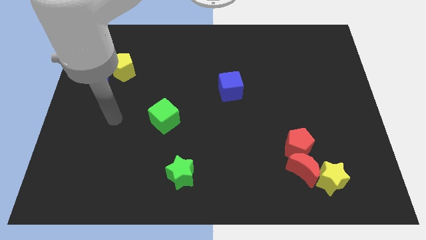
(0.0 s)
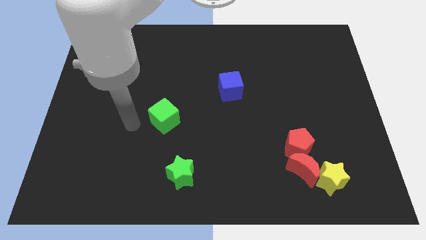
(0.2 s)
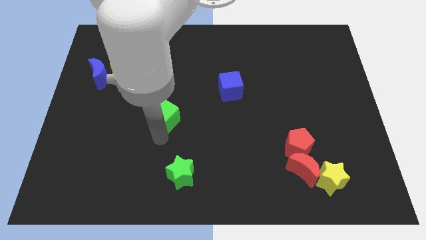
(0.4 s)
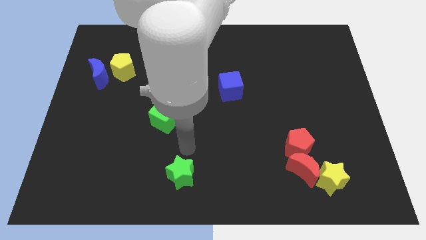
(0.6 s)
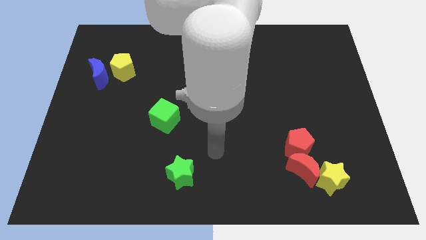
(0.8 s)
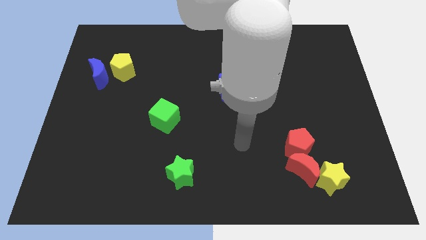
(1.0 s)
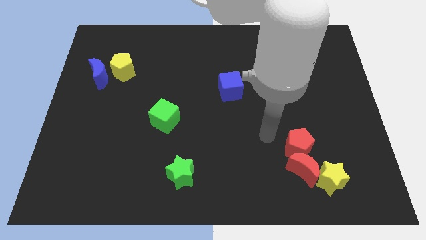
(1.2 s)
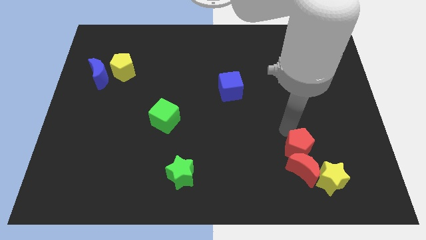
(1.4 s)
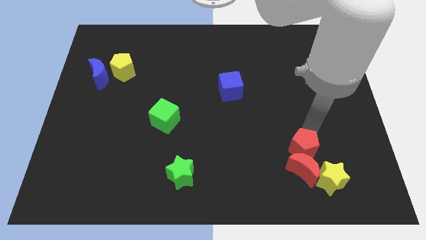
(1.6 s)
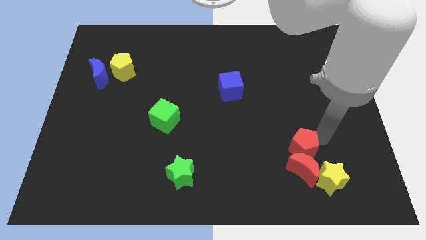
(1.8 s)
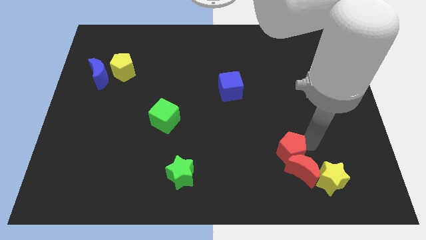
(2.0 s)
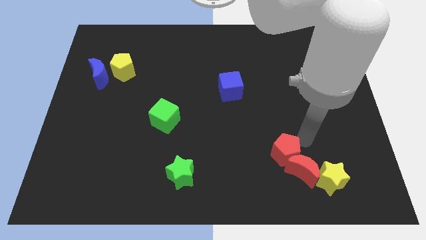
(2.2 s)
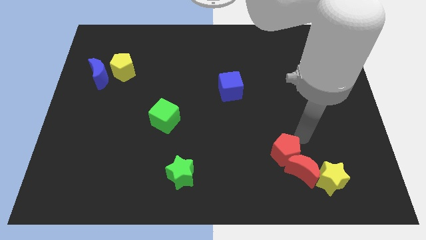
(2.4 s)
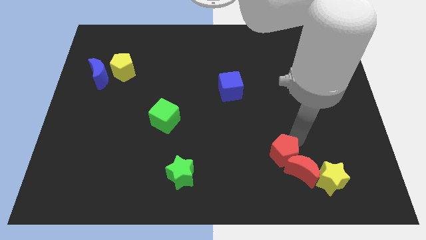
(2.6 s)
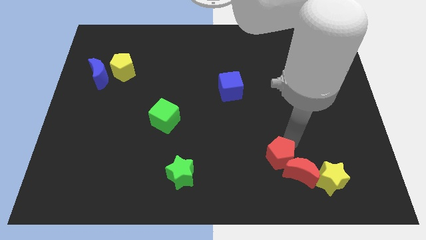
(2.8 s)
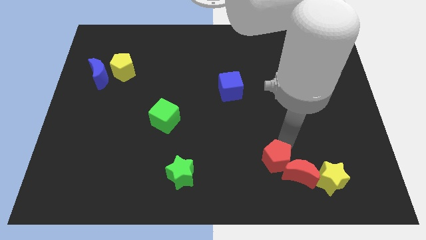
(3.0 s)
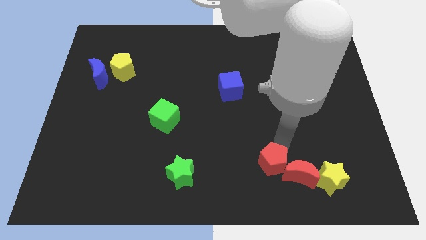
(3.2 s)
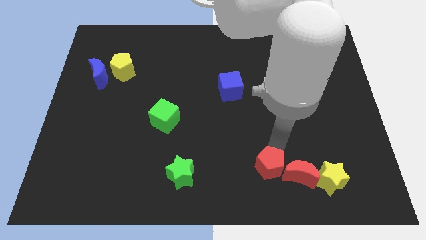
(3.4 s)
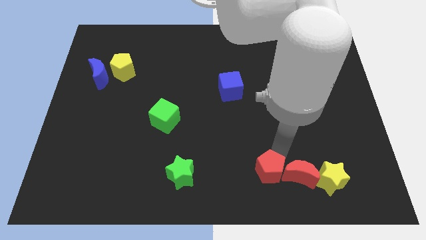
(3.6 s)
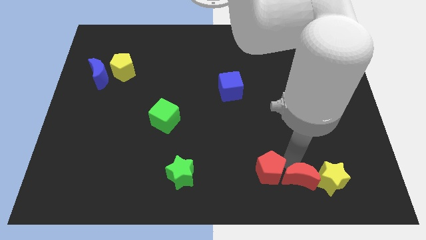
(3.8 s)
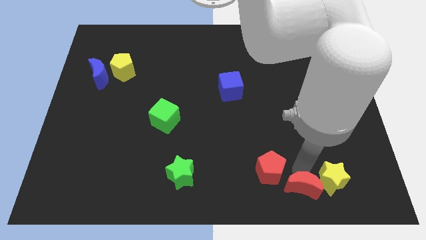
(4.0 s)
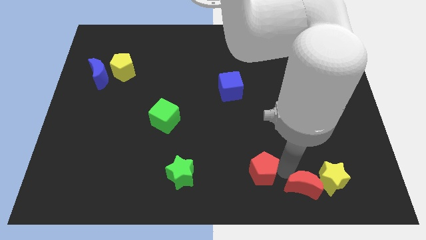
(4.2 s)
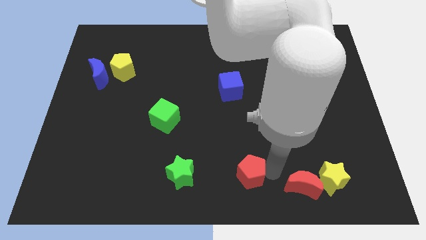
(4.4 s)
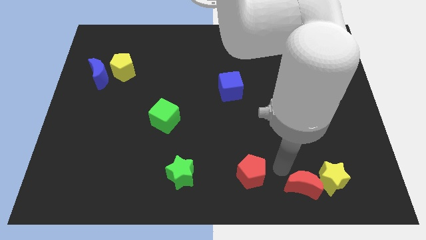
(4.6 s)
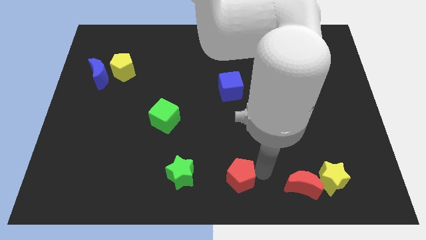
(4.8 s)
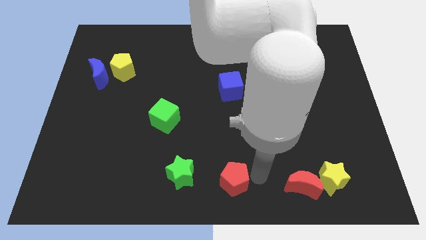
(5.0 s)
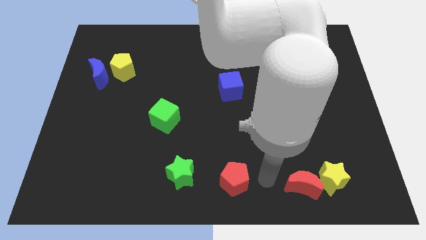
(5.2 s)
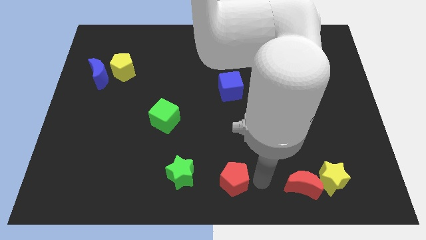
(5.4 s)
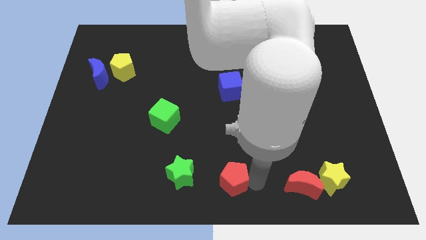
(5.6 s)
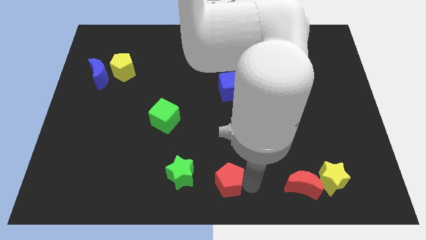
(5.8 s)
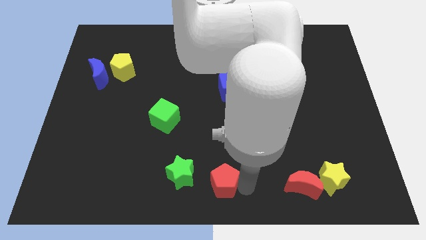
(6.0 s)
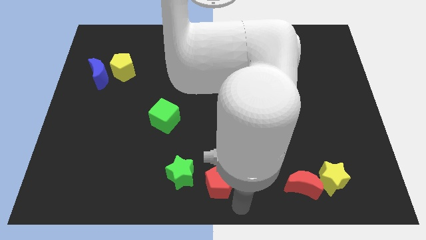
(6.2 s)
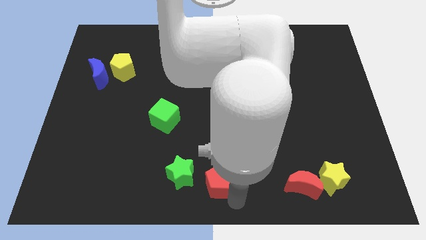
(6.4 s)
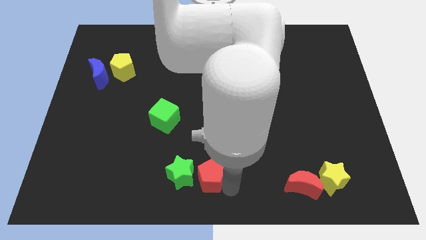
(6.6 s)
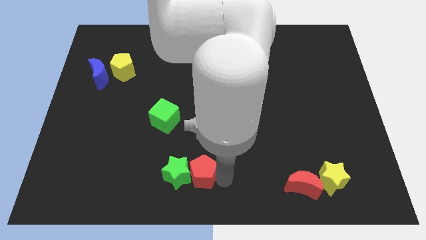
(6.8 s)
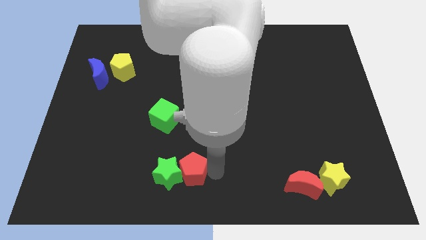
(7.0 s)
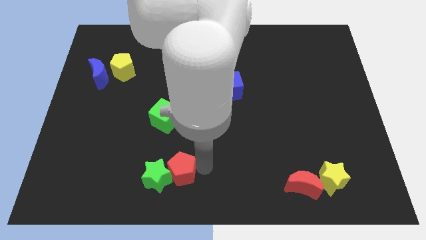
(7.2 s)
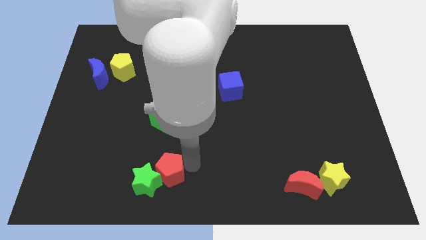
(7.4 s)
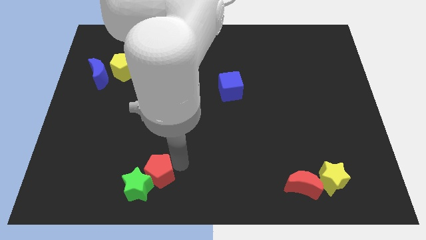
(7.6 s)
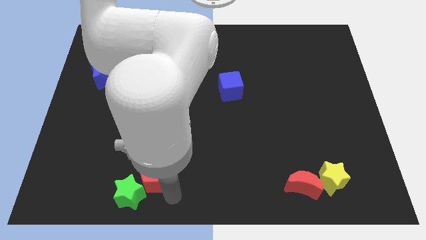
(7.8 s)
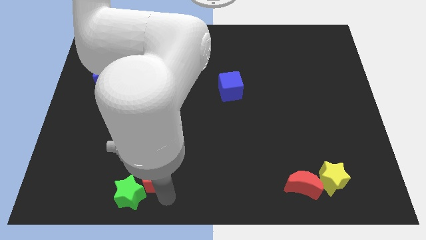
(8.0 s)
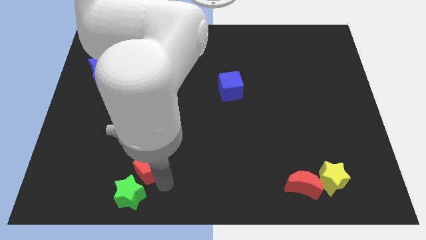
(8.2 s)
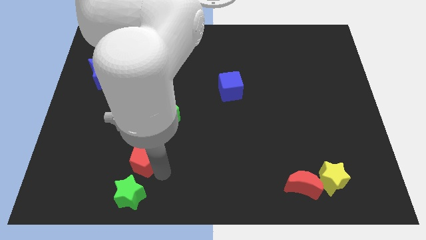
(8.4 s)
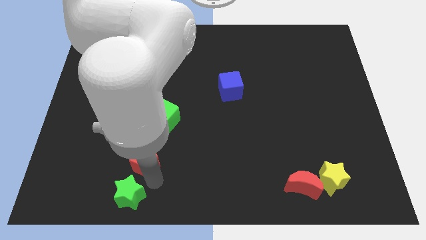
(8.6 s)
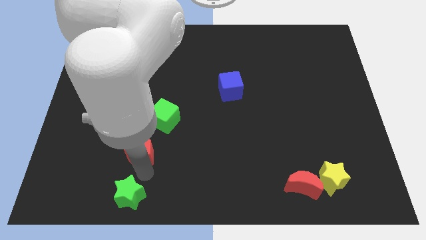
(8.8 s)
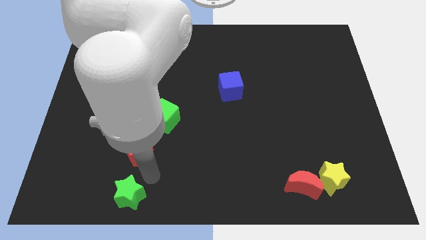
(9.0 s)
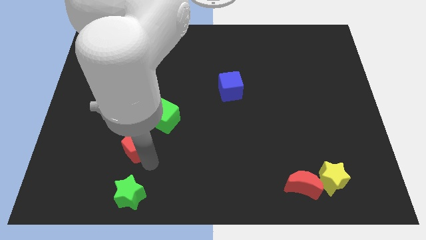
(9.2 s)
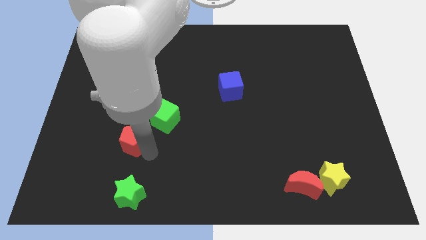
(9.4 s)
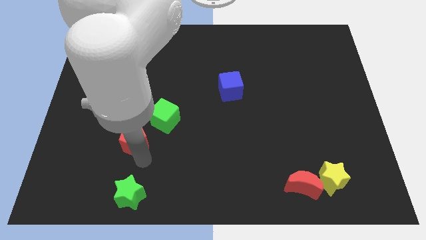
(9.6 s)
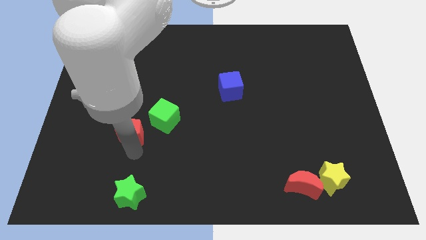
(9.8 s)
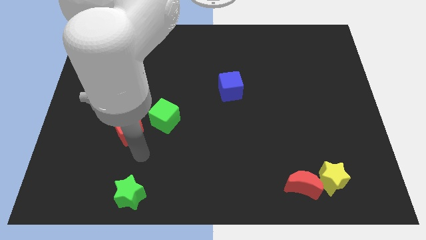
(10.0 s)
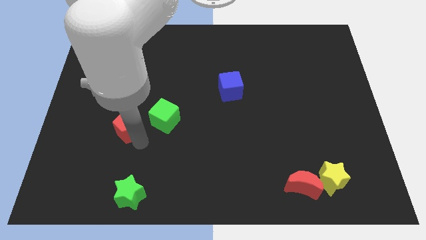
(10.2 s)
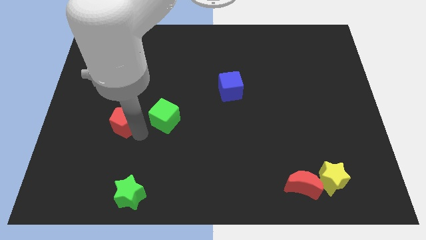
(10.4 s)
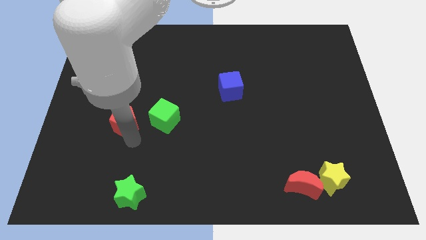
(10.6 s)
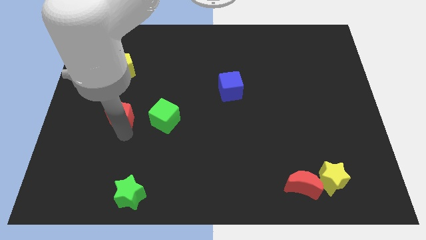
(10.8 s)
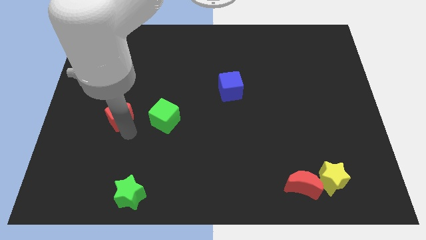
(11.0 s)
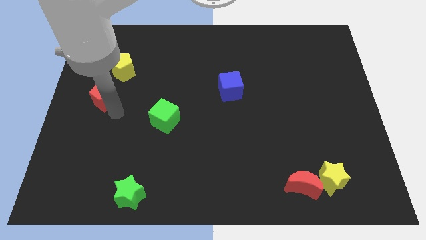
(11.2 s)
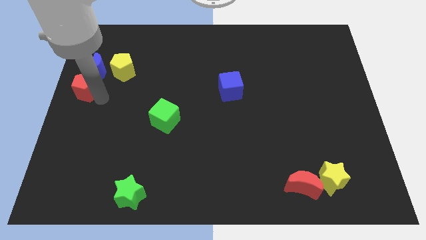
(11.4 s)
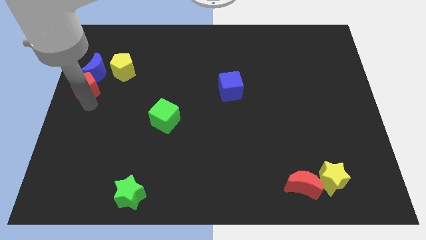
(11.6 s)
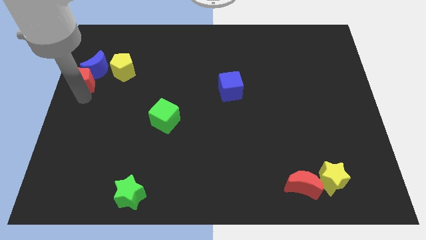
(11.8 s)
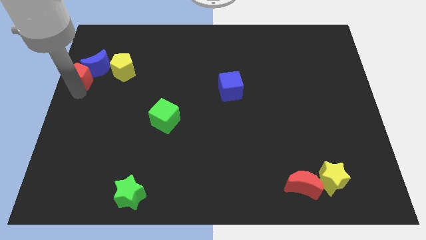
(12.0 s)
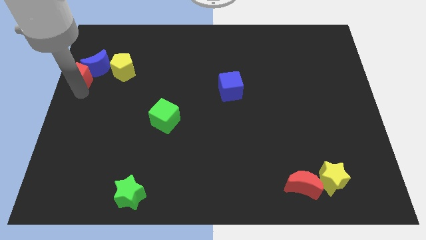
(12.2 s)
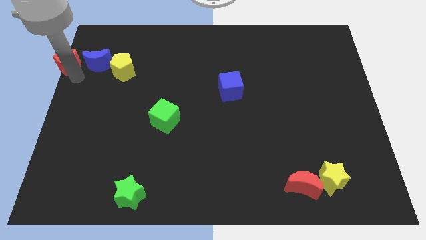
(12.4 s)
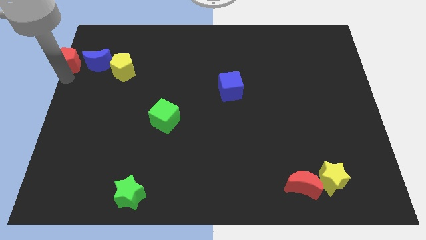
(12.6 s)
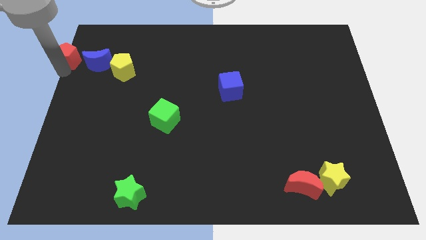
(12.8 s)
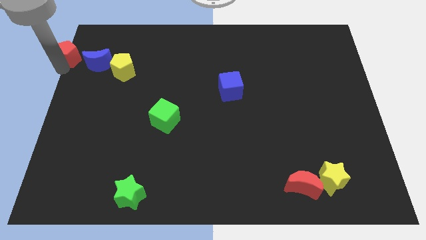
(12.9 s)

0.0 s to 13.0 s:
push the red pentagon to the top left
